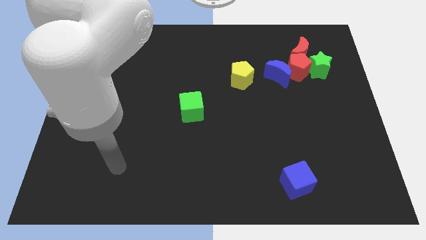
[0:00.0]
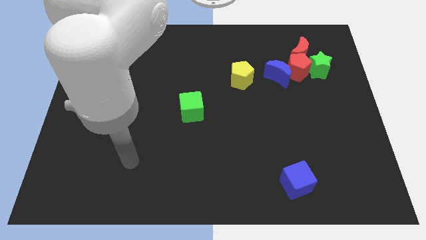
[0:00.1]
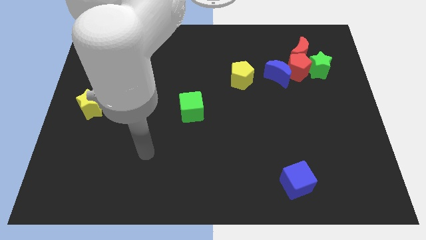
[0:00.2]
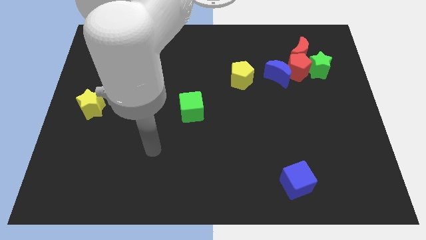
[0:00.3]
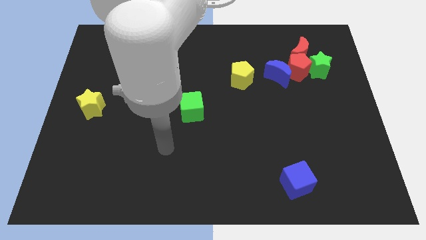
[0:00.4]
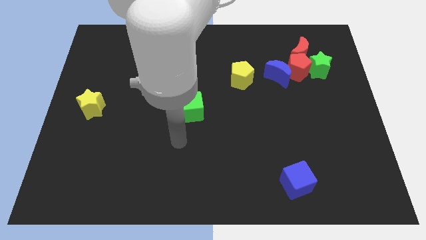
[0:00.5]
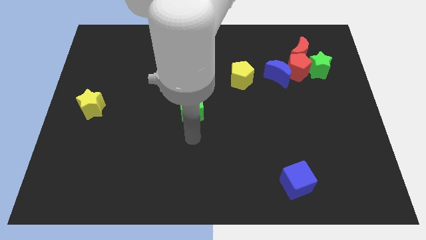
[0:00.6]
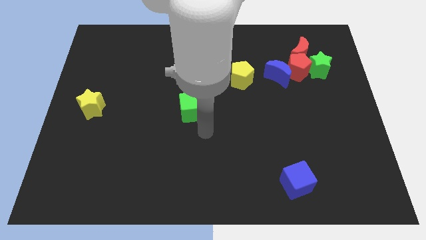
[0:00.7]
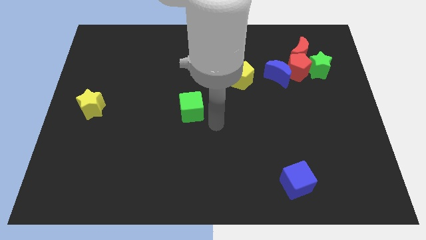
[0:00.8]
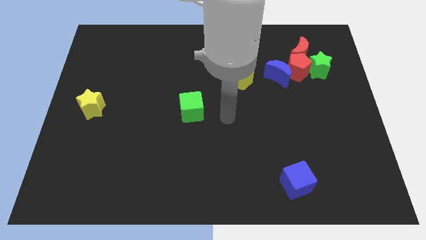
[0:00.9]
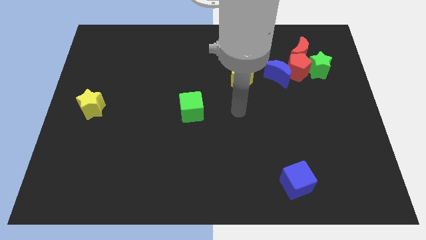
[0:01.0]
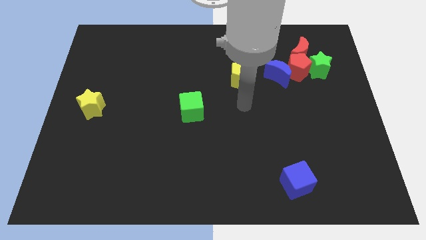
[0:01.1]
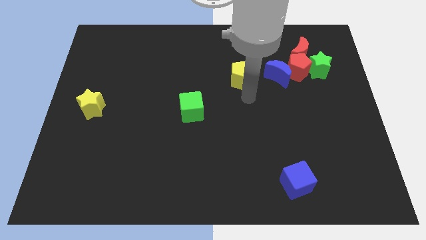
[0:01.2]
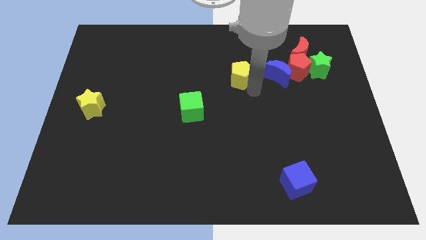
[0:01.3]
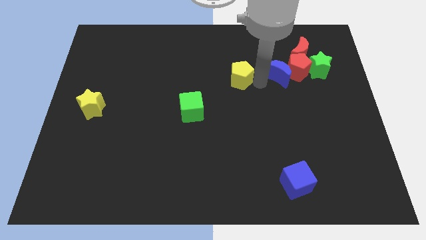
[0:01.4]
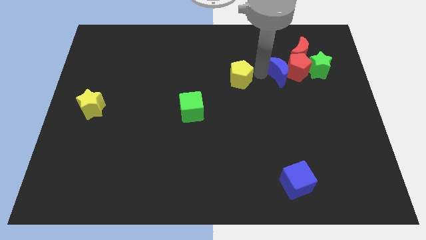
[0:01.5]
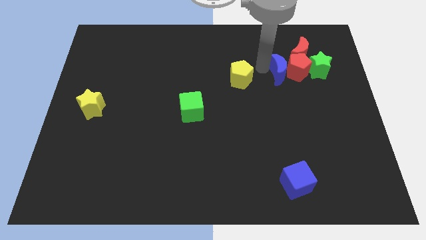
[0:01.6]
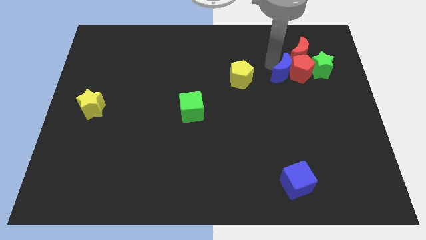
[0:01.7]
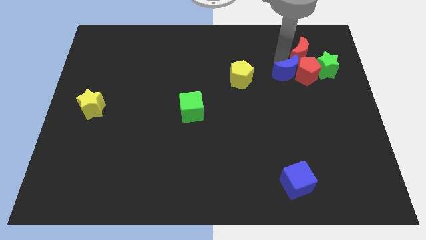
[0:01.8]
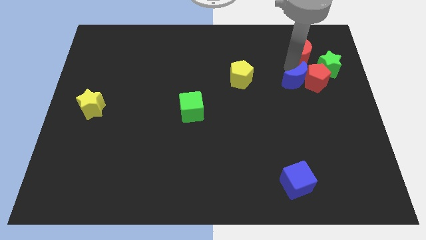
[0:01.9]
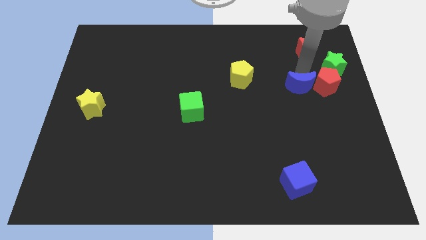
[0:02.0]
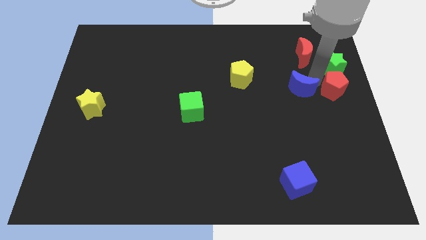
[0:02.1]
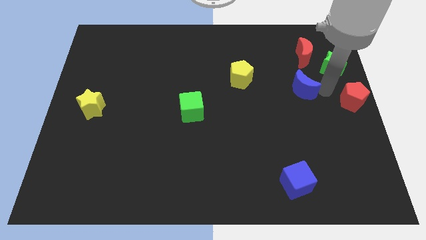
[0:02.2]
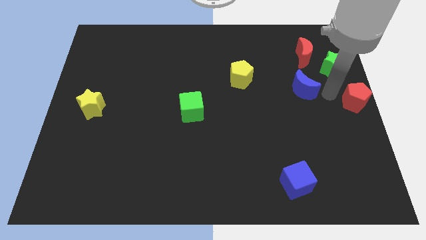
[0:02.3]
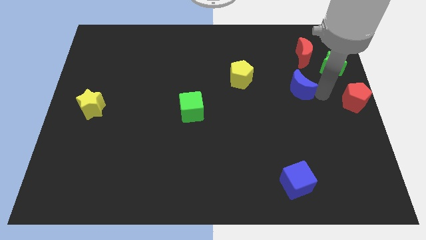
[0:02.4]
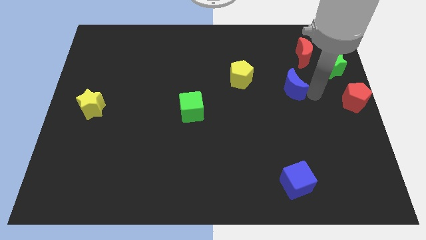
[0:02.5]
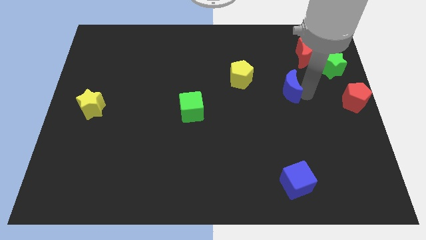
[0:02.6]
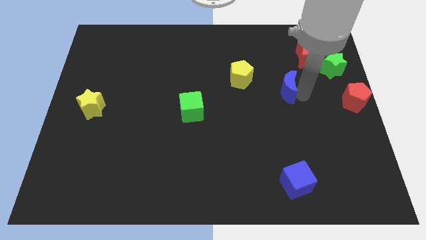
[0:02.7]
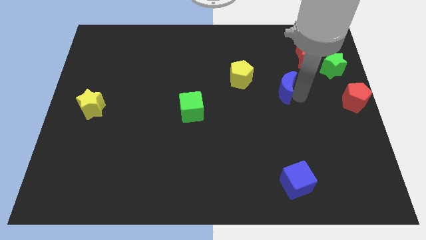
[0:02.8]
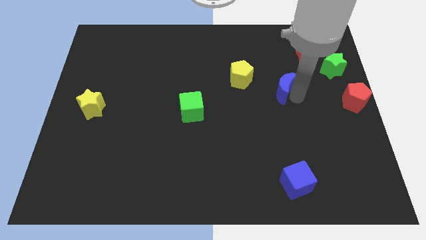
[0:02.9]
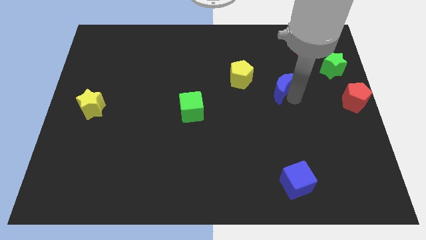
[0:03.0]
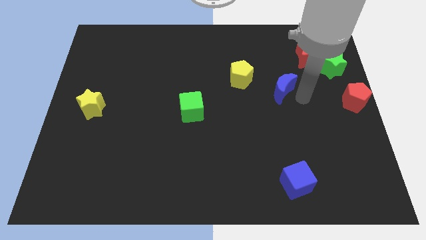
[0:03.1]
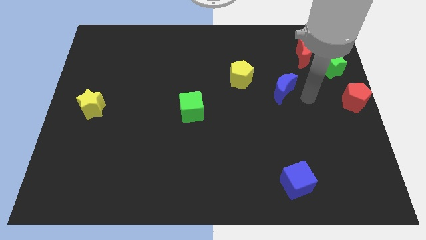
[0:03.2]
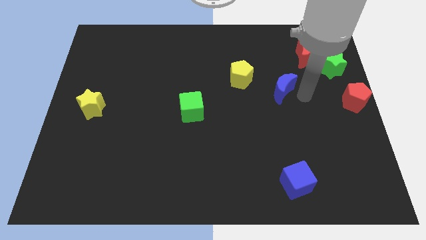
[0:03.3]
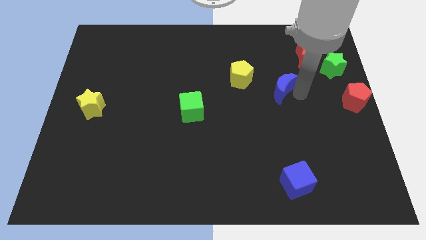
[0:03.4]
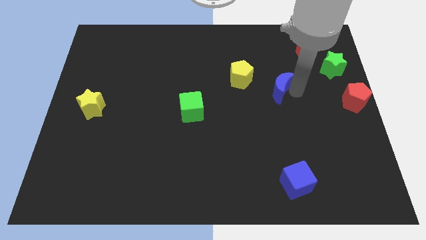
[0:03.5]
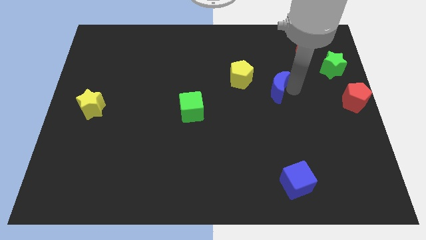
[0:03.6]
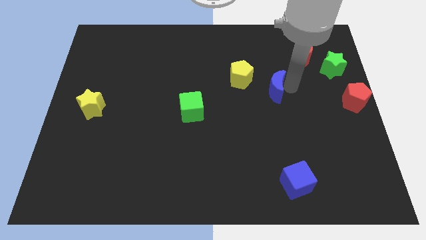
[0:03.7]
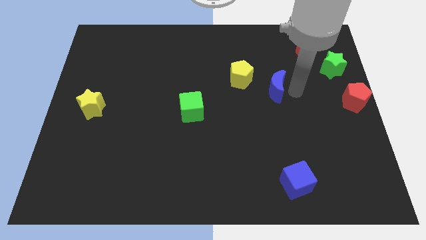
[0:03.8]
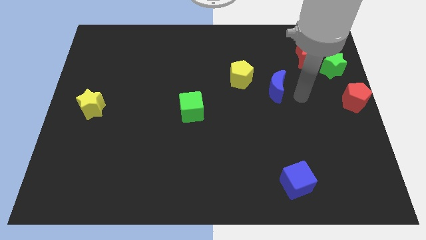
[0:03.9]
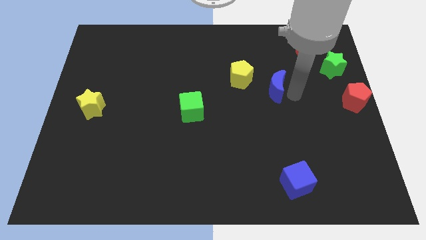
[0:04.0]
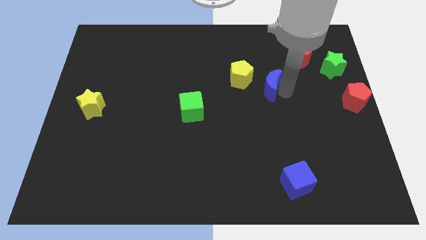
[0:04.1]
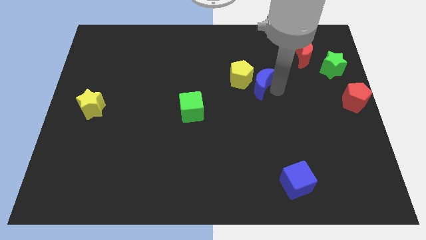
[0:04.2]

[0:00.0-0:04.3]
push the blue moon to the yellow pentagon

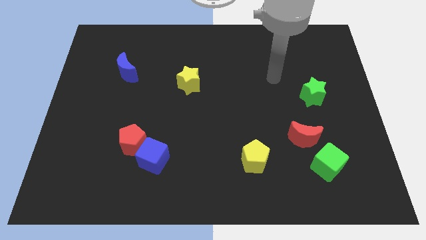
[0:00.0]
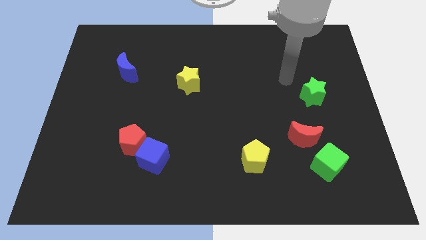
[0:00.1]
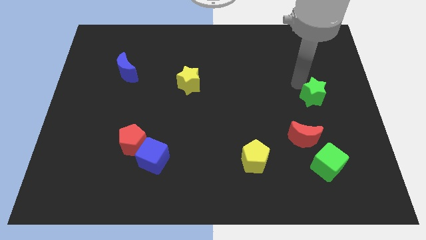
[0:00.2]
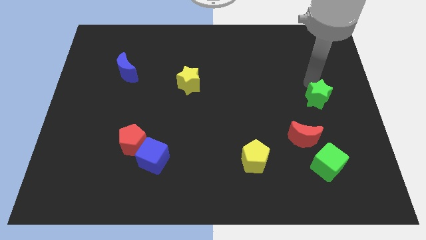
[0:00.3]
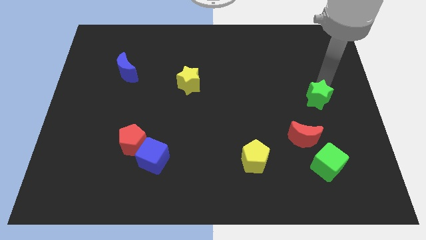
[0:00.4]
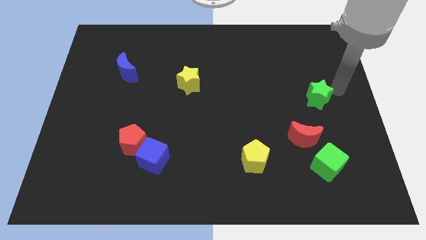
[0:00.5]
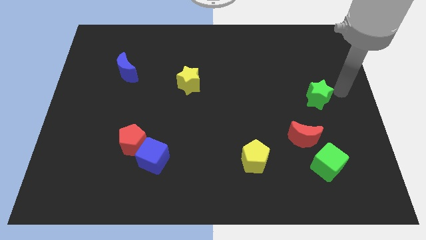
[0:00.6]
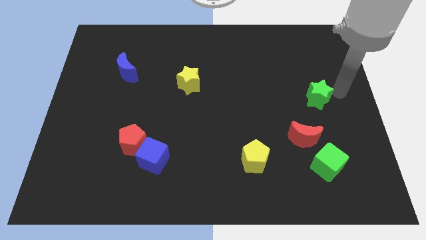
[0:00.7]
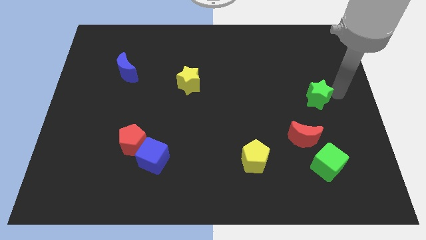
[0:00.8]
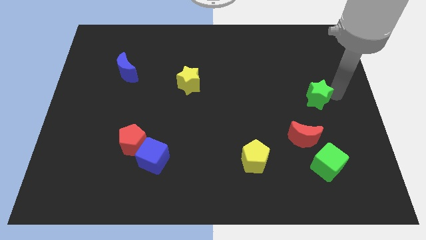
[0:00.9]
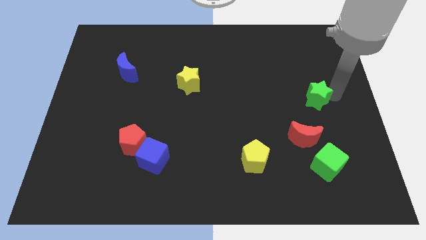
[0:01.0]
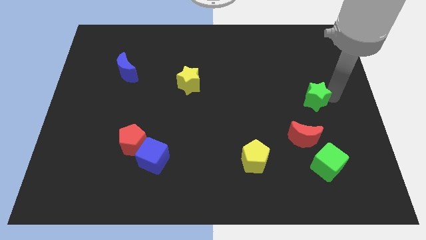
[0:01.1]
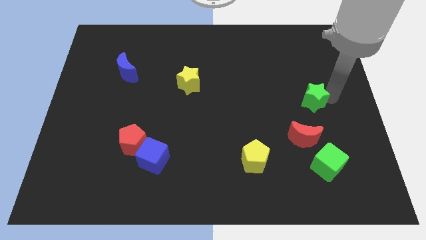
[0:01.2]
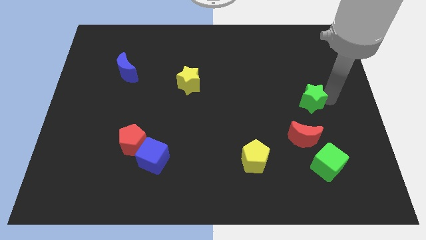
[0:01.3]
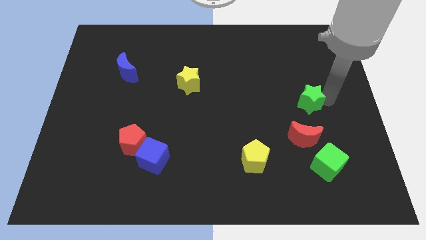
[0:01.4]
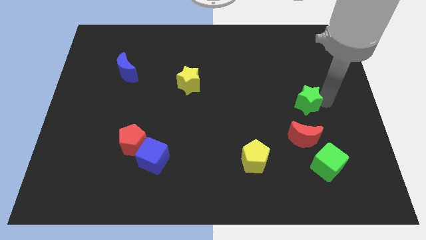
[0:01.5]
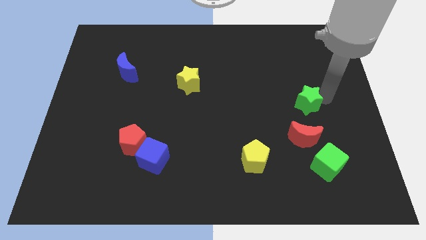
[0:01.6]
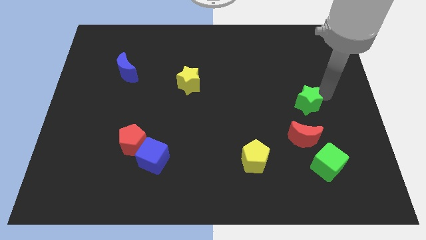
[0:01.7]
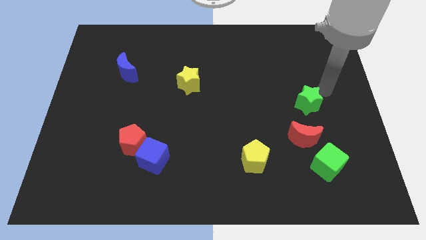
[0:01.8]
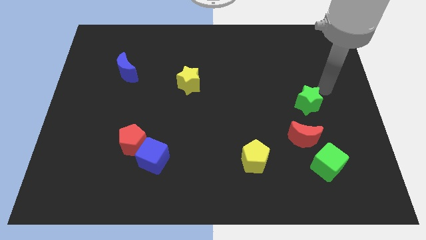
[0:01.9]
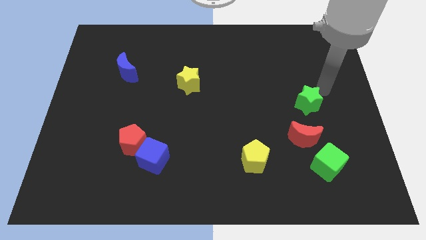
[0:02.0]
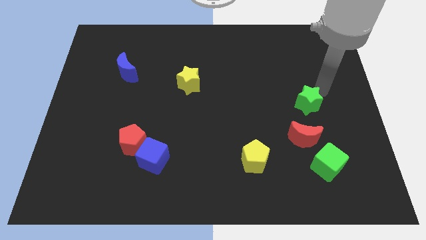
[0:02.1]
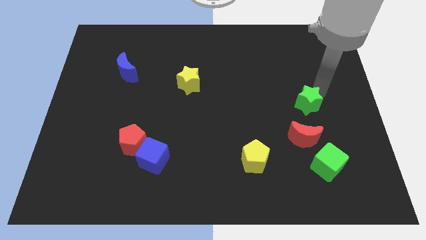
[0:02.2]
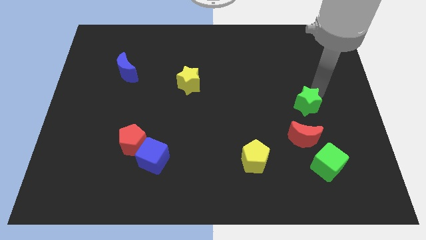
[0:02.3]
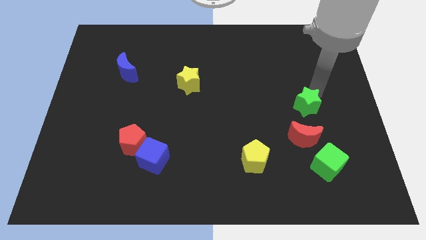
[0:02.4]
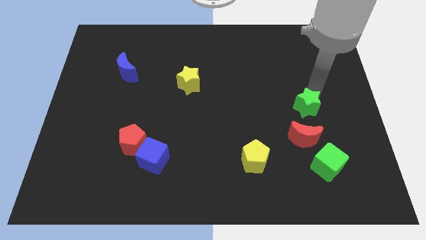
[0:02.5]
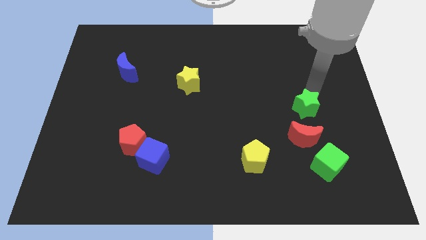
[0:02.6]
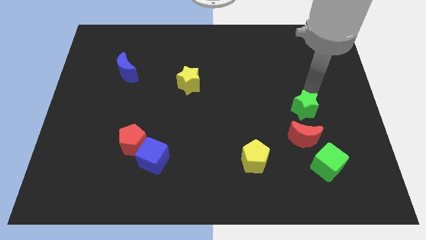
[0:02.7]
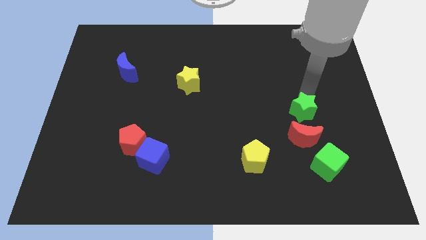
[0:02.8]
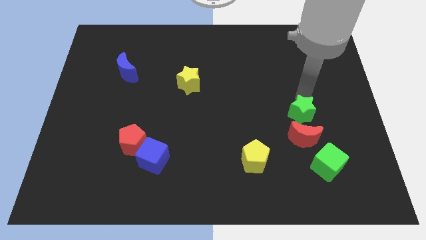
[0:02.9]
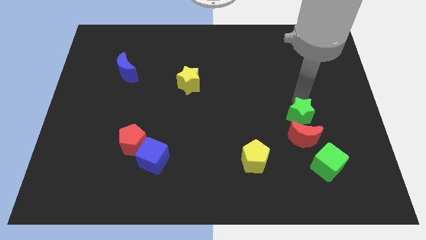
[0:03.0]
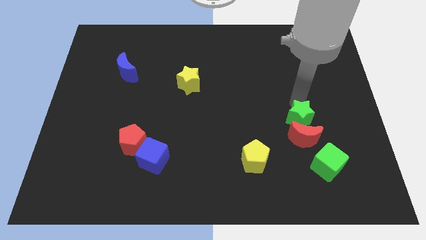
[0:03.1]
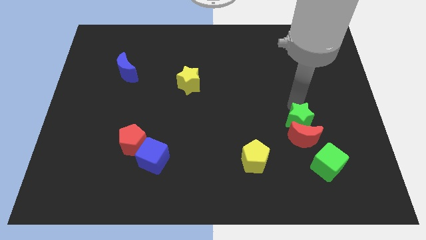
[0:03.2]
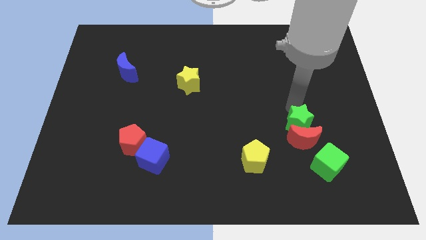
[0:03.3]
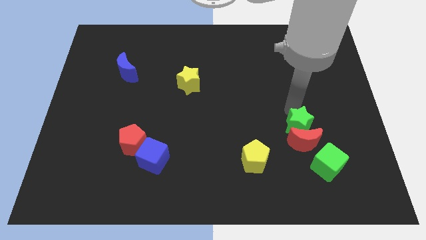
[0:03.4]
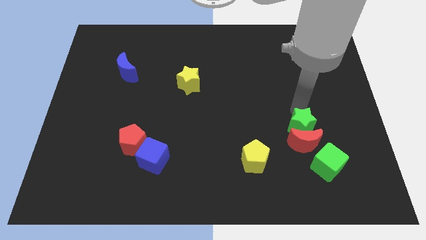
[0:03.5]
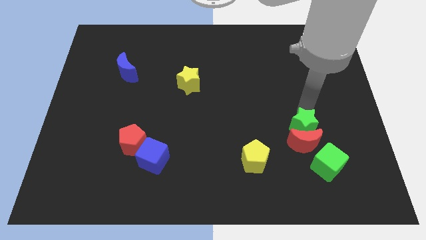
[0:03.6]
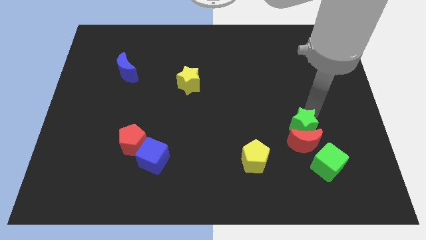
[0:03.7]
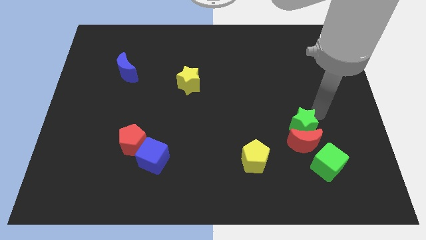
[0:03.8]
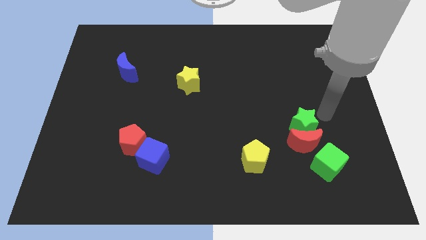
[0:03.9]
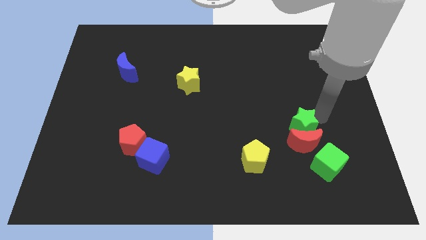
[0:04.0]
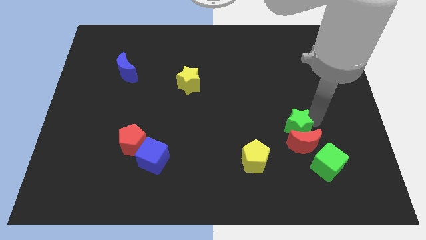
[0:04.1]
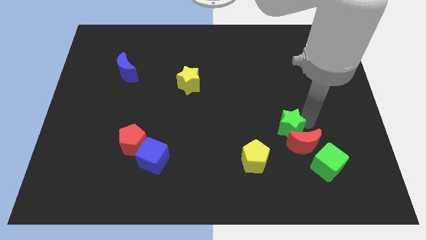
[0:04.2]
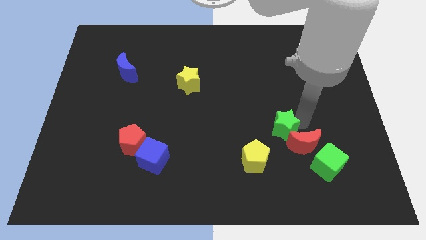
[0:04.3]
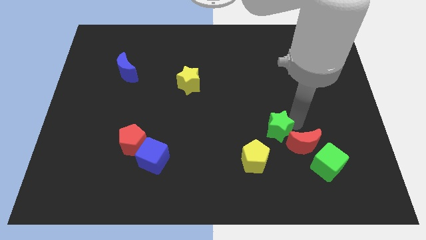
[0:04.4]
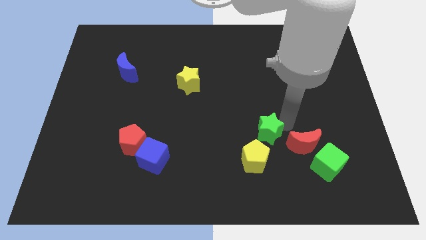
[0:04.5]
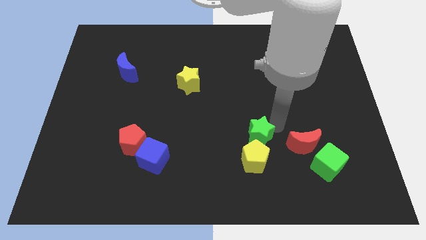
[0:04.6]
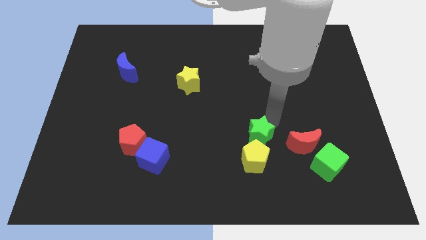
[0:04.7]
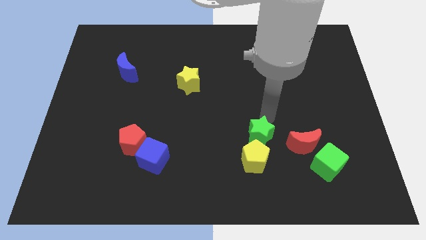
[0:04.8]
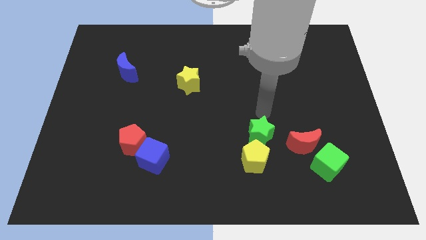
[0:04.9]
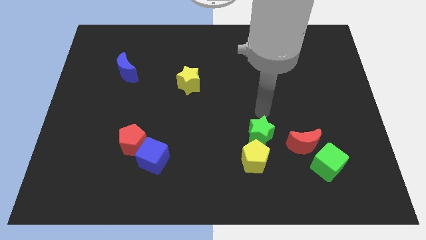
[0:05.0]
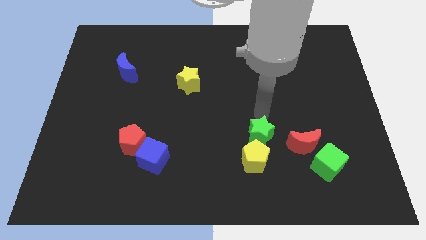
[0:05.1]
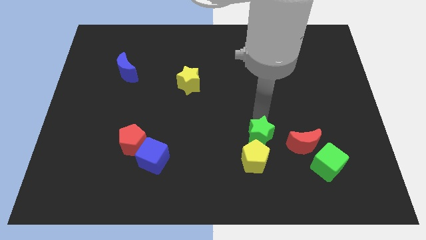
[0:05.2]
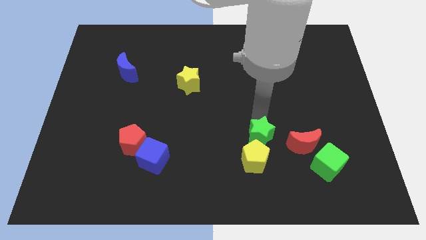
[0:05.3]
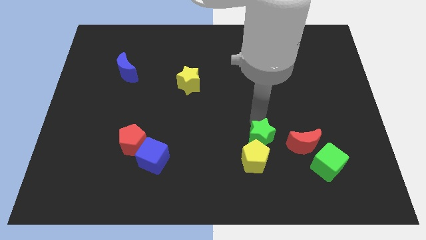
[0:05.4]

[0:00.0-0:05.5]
put the green star to the yellow pentagon
